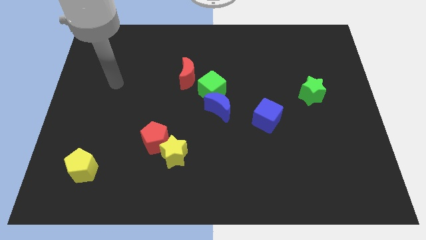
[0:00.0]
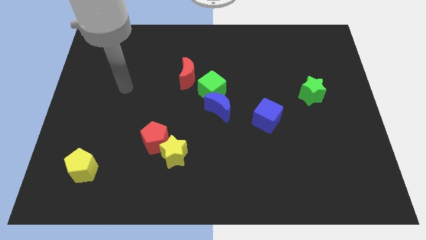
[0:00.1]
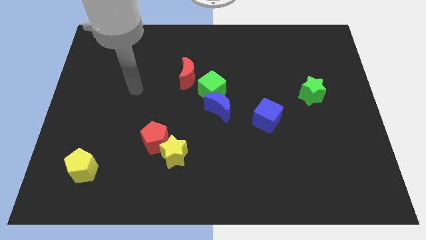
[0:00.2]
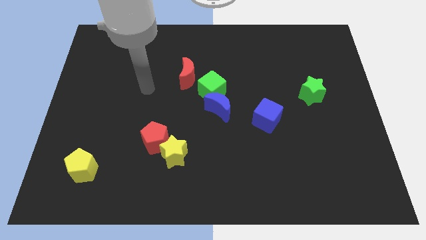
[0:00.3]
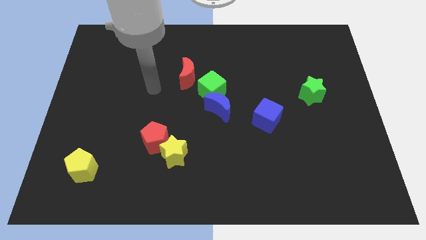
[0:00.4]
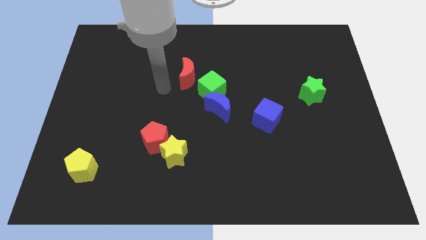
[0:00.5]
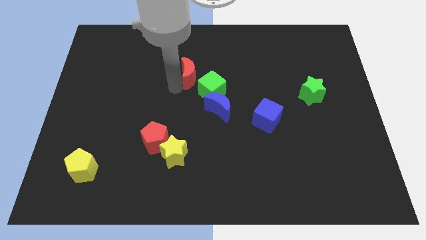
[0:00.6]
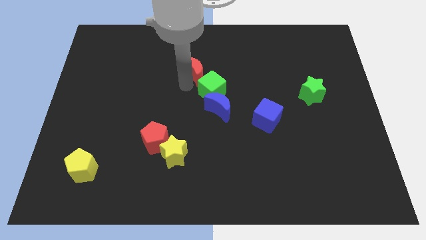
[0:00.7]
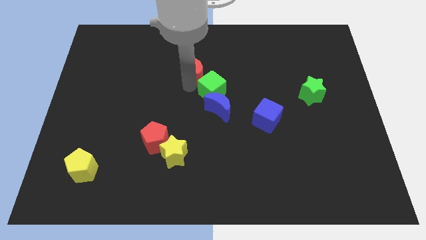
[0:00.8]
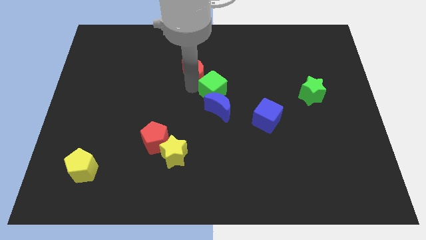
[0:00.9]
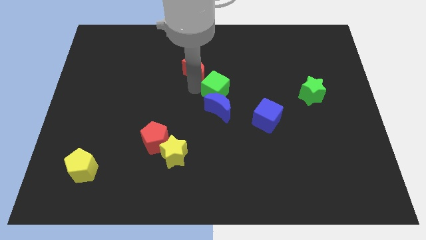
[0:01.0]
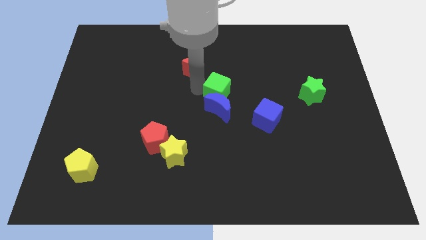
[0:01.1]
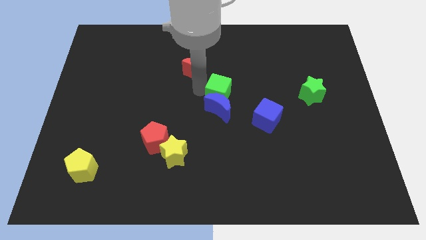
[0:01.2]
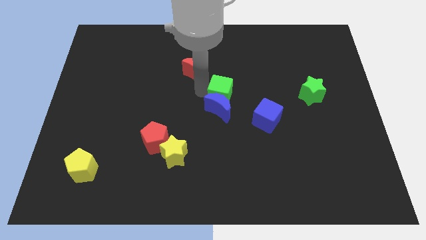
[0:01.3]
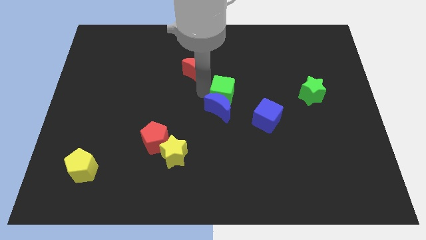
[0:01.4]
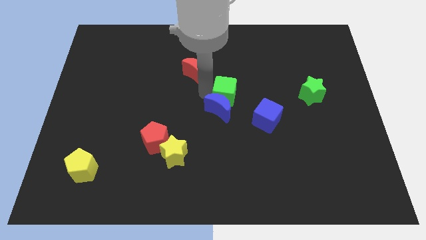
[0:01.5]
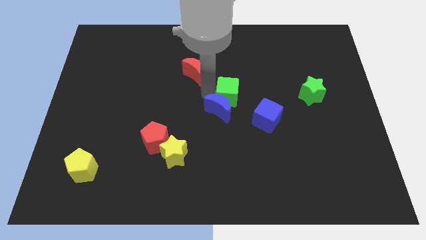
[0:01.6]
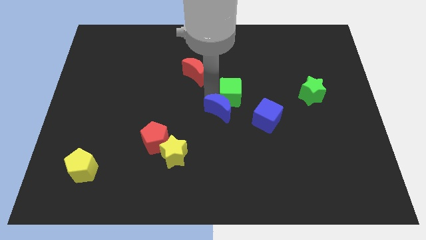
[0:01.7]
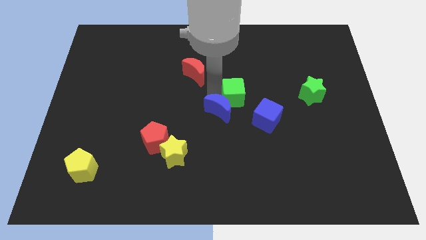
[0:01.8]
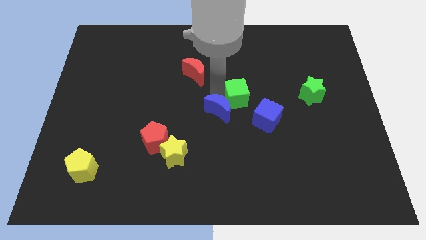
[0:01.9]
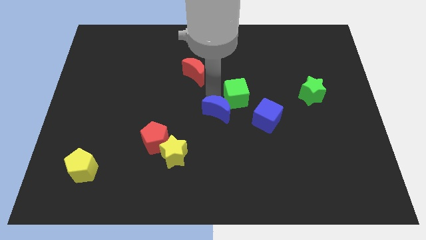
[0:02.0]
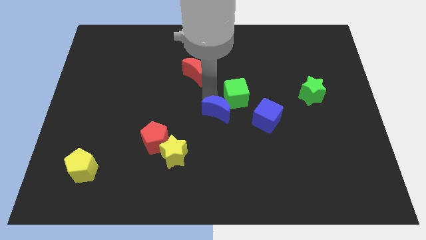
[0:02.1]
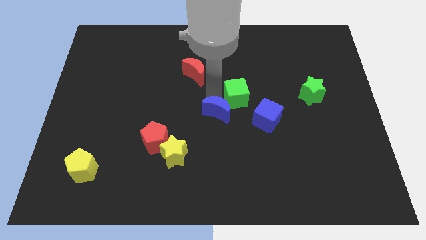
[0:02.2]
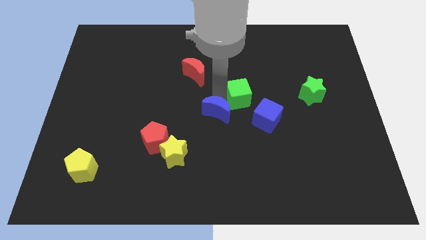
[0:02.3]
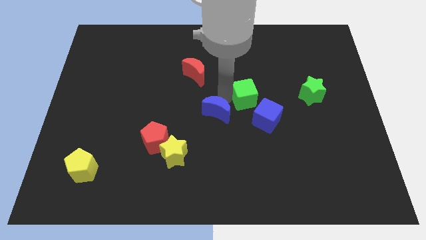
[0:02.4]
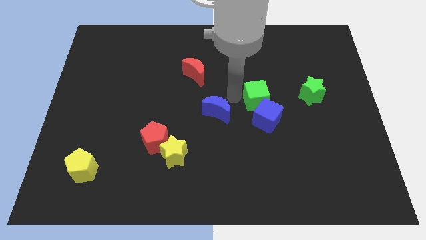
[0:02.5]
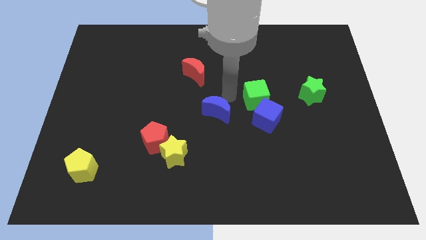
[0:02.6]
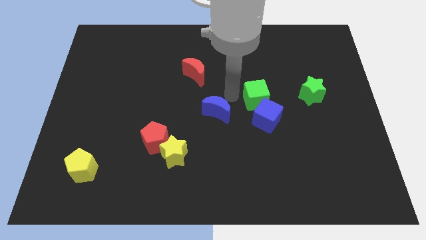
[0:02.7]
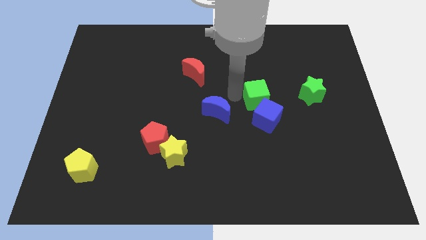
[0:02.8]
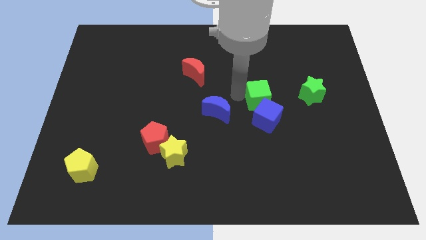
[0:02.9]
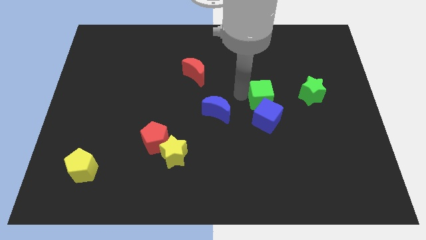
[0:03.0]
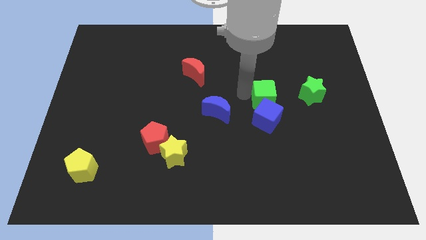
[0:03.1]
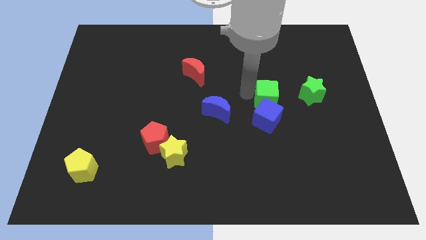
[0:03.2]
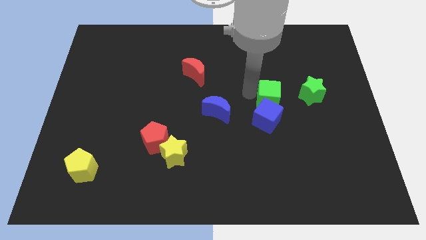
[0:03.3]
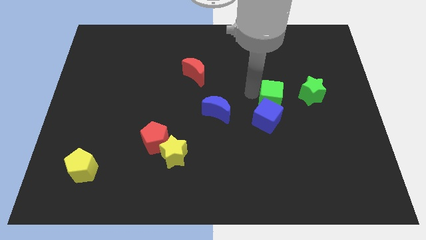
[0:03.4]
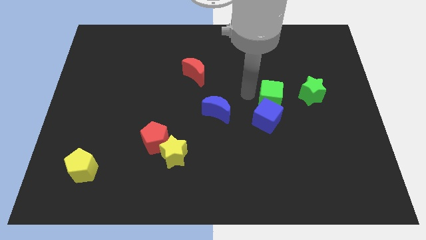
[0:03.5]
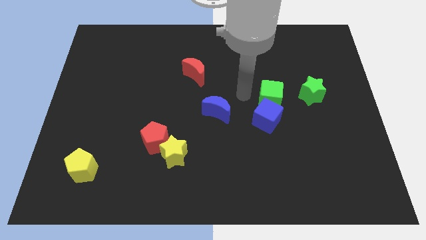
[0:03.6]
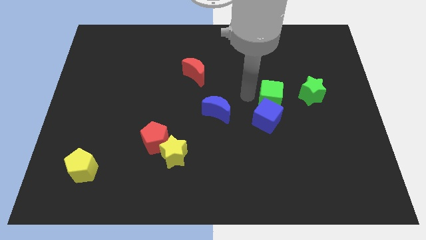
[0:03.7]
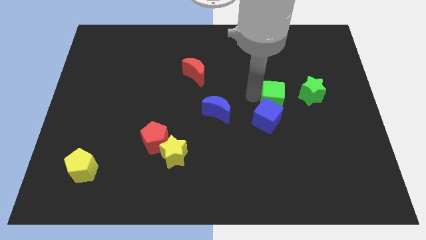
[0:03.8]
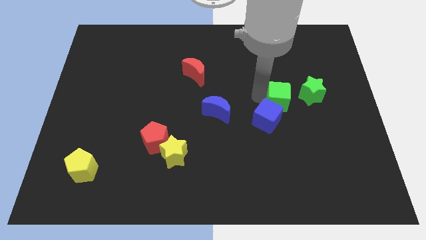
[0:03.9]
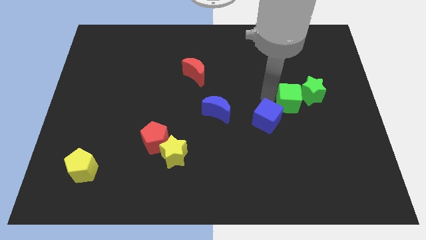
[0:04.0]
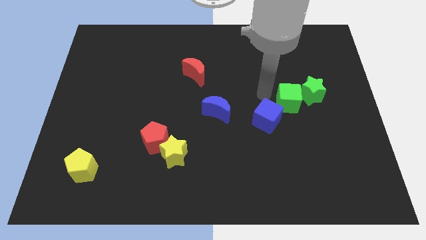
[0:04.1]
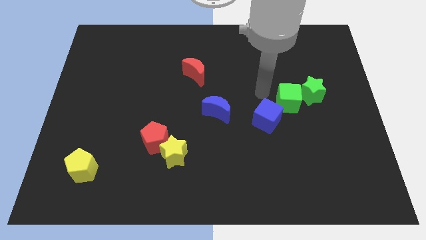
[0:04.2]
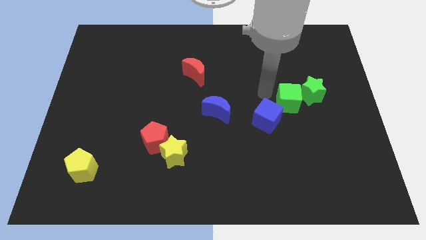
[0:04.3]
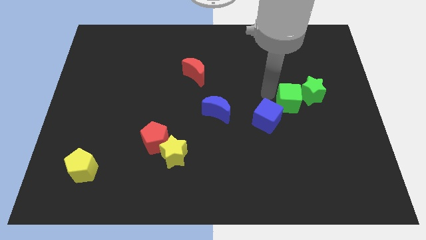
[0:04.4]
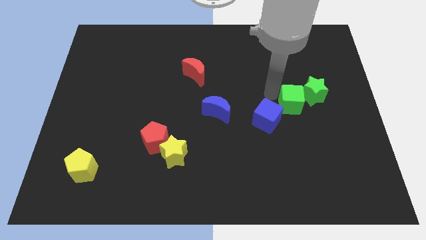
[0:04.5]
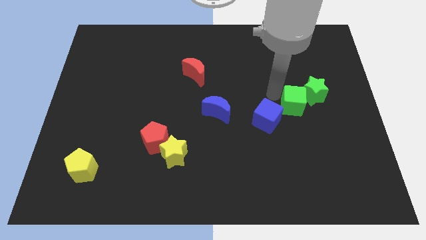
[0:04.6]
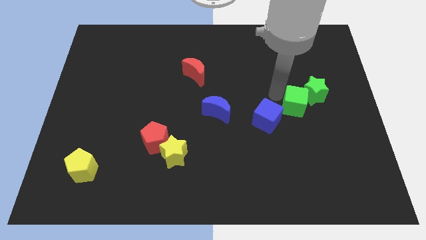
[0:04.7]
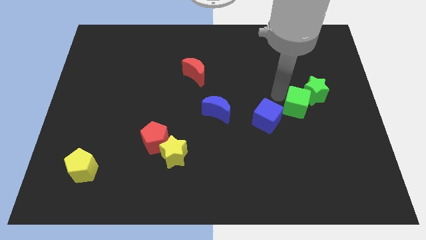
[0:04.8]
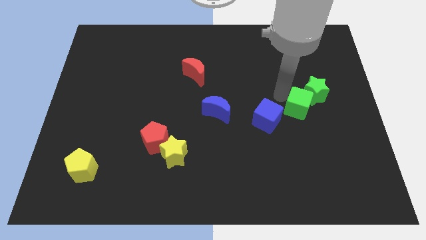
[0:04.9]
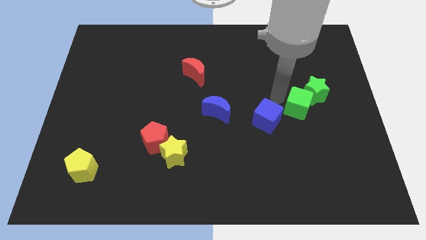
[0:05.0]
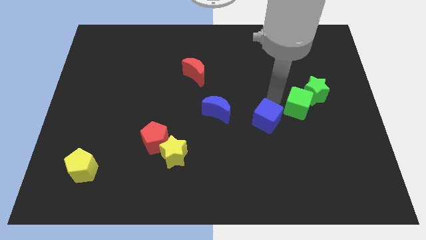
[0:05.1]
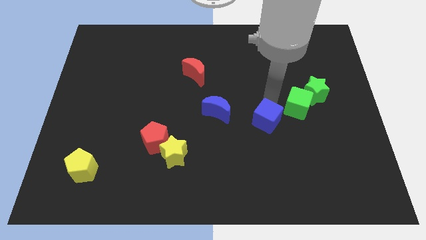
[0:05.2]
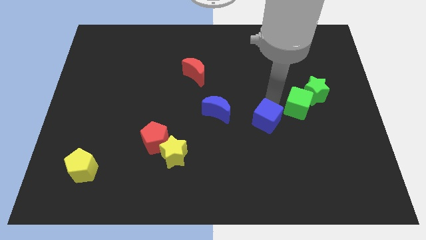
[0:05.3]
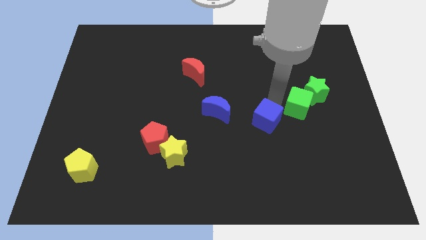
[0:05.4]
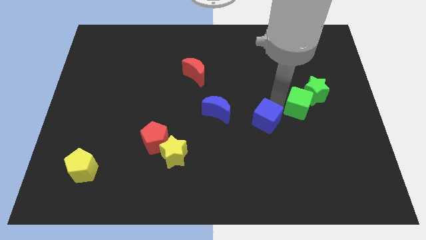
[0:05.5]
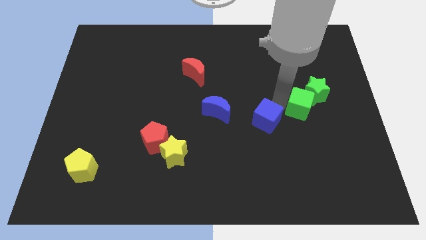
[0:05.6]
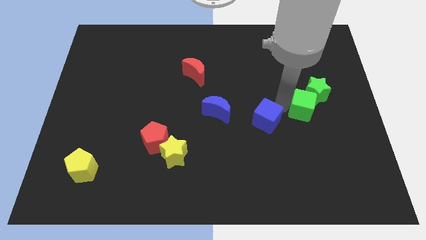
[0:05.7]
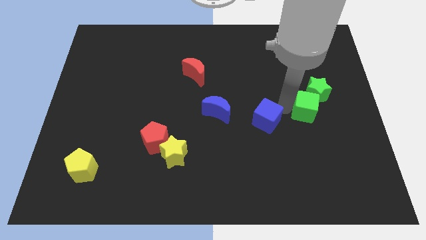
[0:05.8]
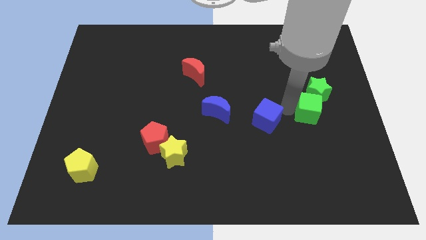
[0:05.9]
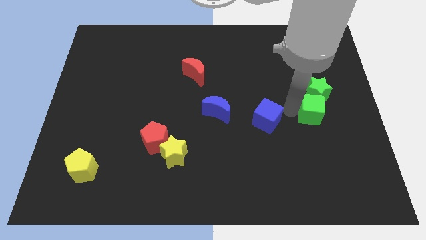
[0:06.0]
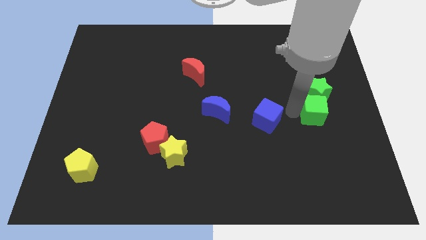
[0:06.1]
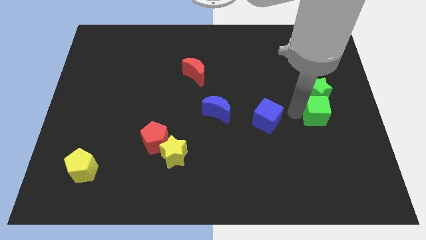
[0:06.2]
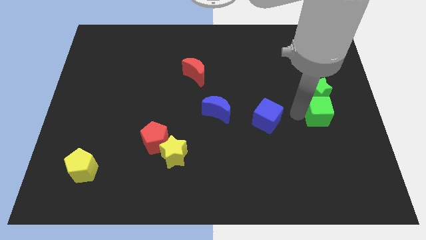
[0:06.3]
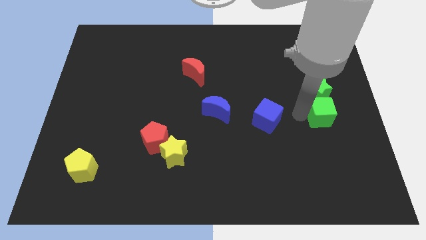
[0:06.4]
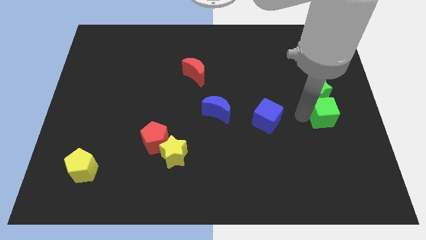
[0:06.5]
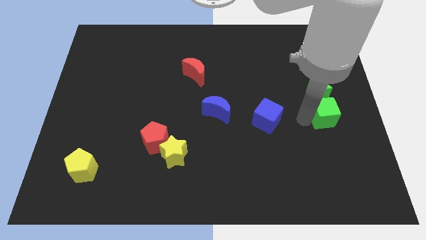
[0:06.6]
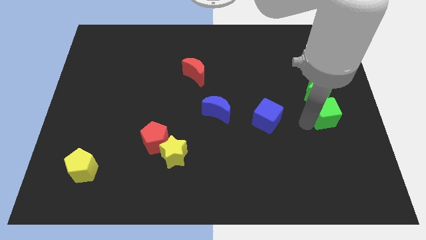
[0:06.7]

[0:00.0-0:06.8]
push the green cube to the center right

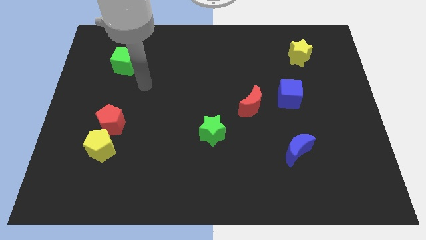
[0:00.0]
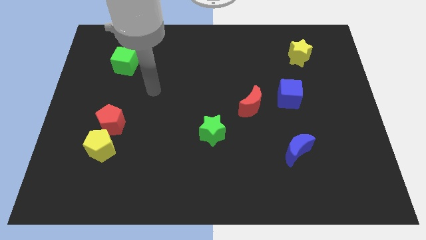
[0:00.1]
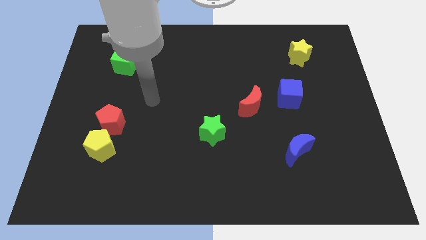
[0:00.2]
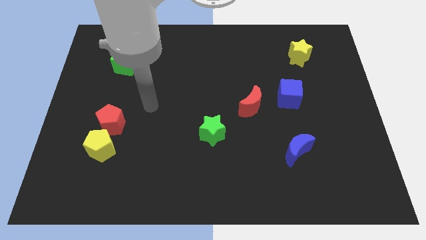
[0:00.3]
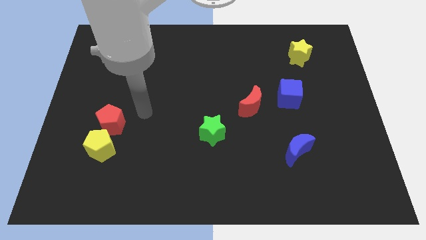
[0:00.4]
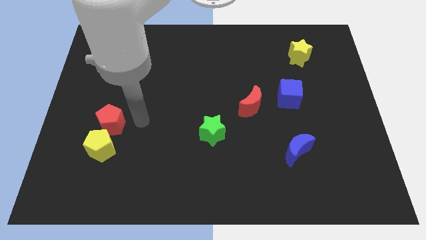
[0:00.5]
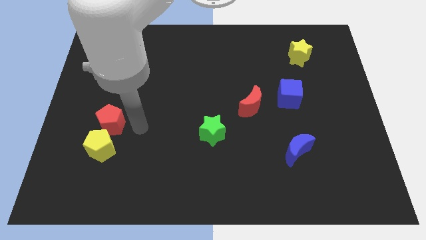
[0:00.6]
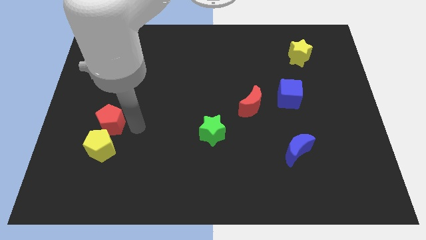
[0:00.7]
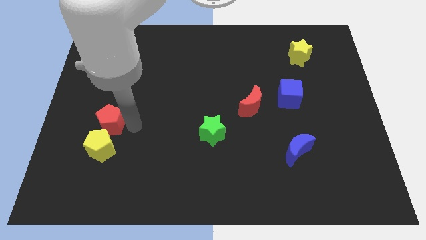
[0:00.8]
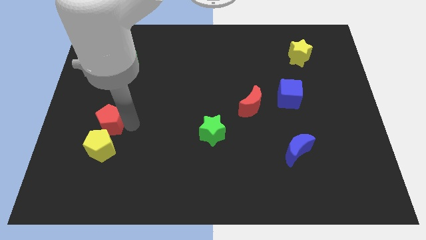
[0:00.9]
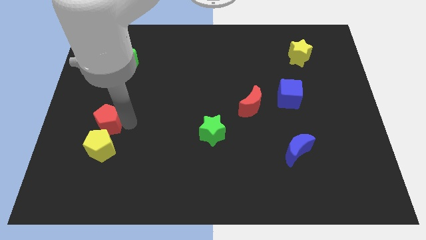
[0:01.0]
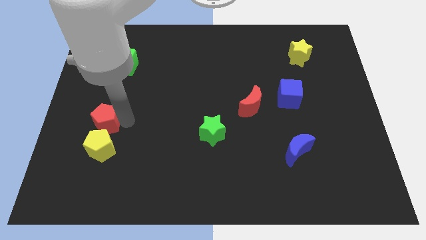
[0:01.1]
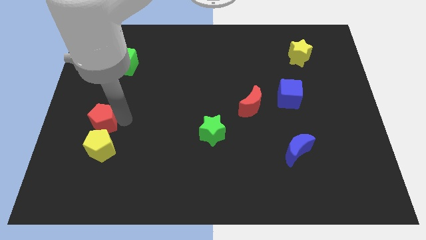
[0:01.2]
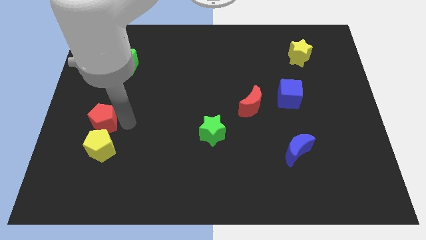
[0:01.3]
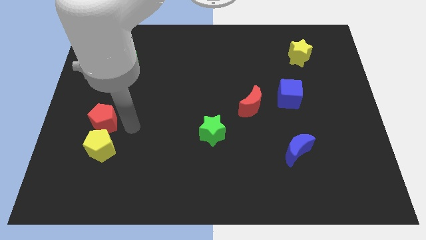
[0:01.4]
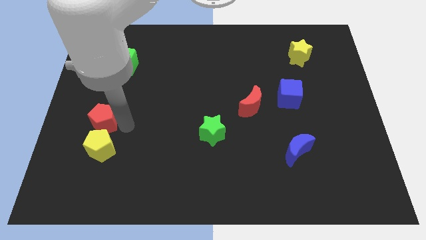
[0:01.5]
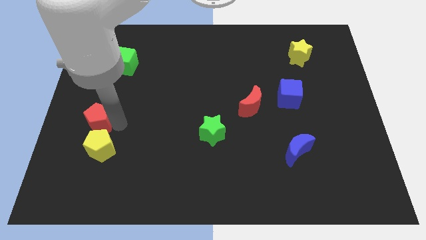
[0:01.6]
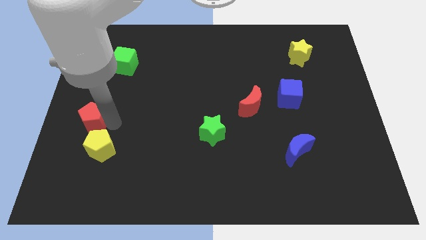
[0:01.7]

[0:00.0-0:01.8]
push the red pentagon to the left side
